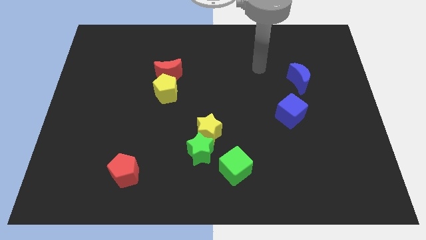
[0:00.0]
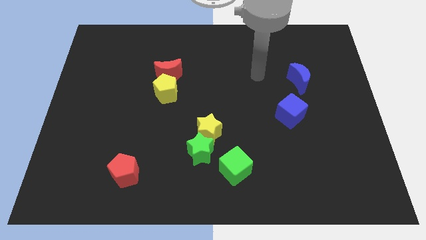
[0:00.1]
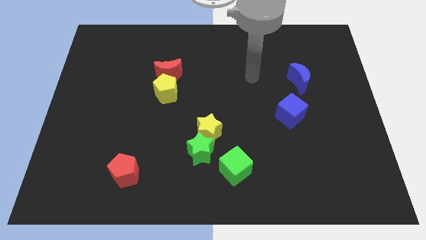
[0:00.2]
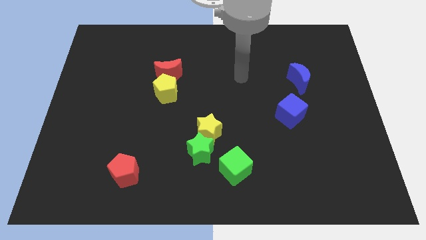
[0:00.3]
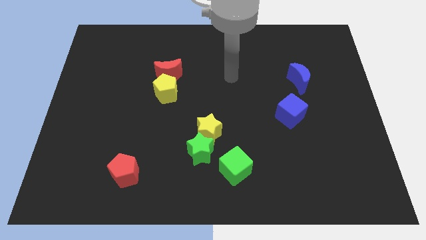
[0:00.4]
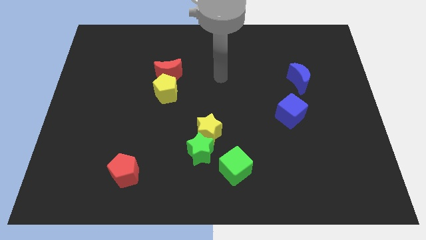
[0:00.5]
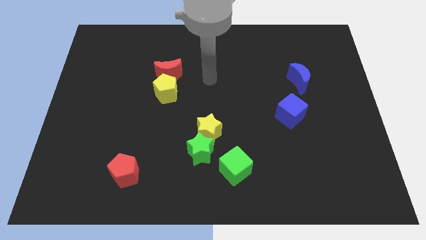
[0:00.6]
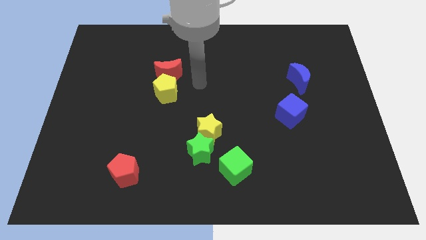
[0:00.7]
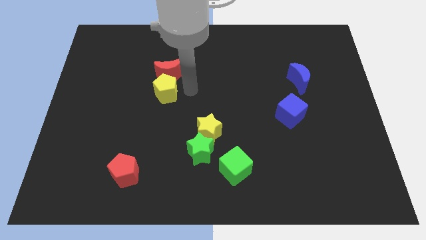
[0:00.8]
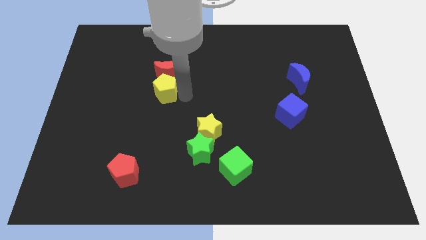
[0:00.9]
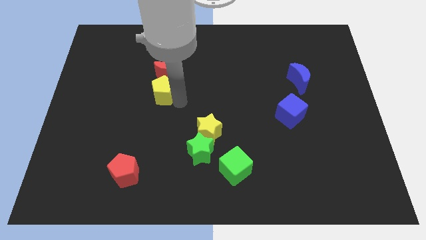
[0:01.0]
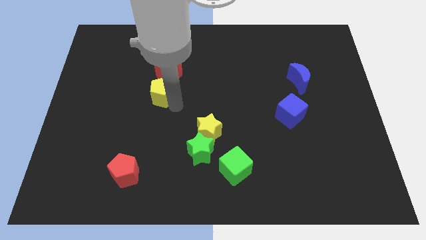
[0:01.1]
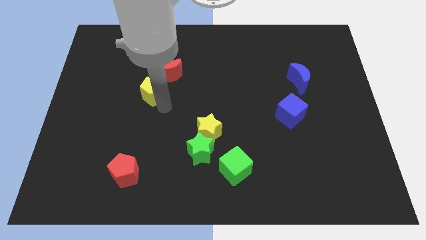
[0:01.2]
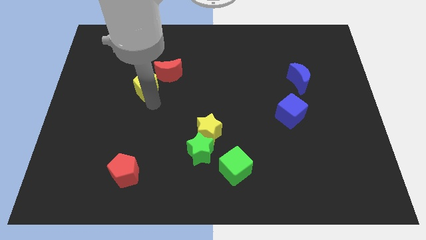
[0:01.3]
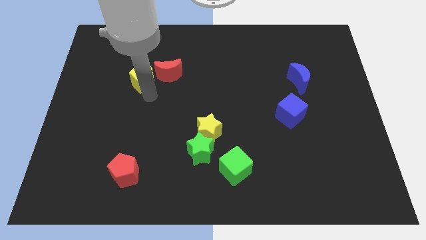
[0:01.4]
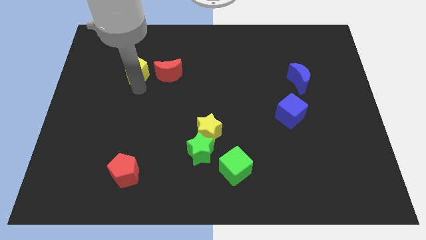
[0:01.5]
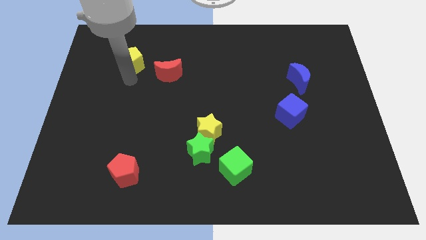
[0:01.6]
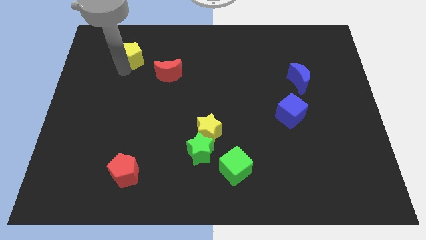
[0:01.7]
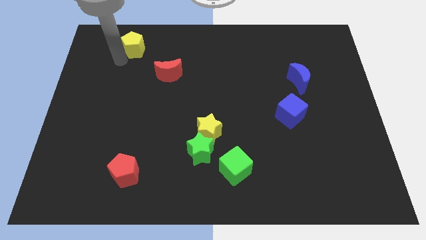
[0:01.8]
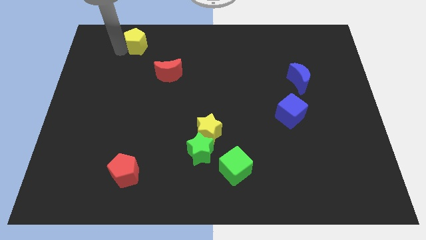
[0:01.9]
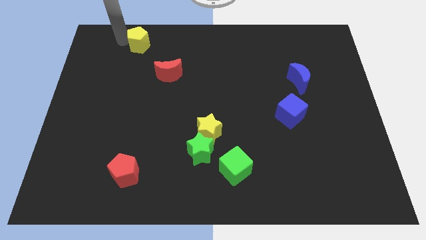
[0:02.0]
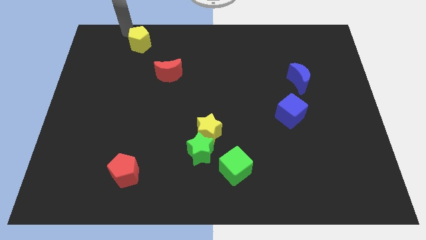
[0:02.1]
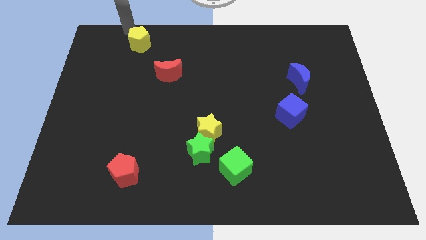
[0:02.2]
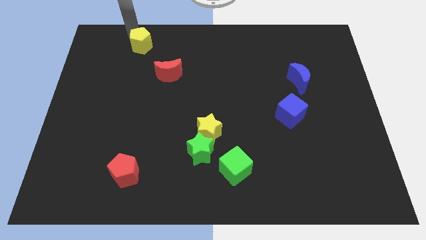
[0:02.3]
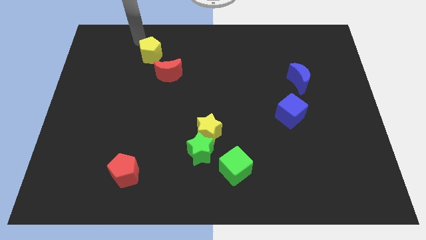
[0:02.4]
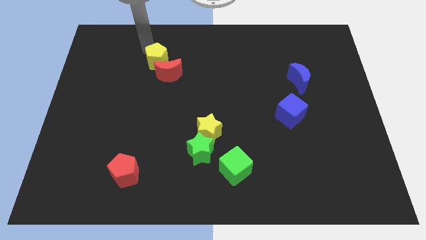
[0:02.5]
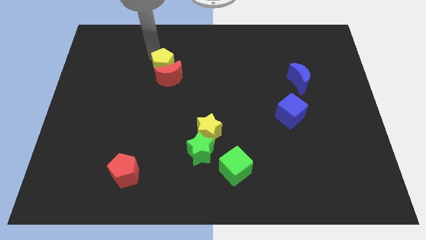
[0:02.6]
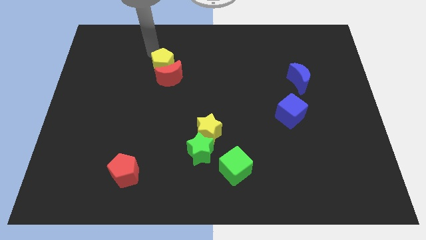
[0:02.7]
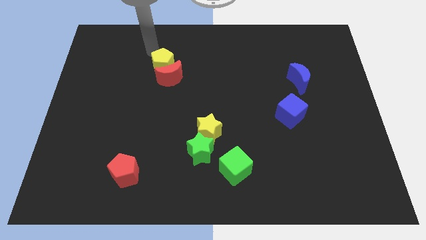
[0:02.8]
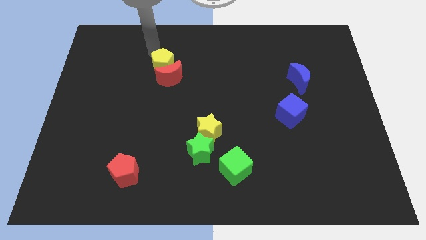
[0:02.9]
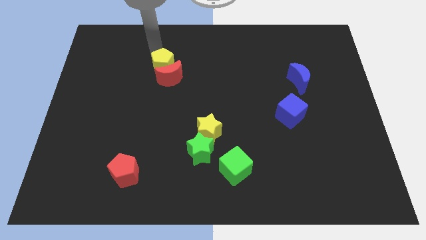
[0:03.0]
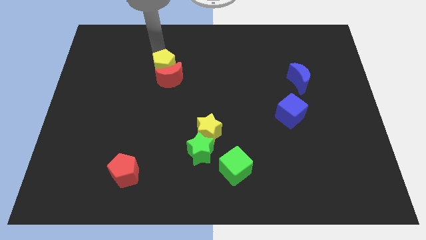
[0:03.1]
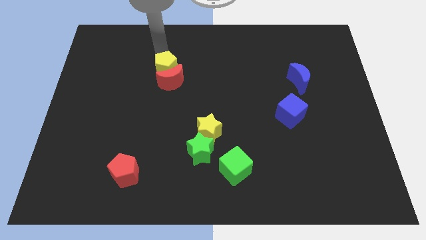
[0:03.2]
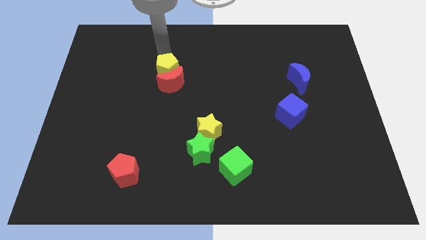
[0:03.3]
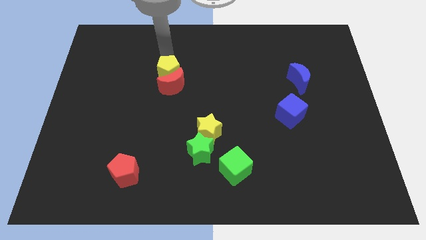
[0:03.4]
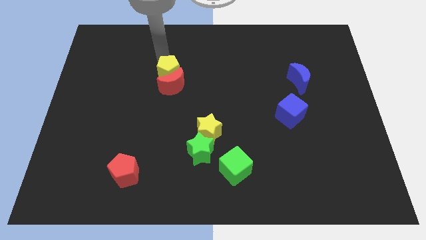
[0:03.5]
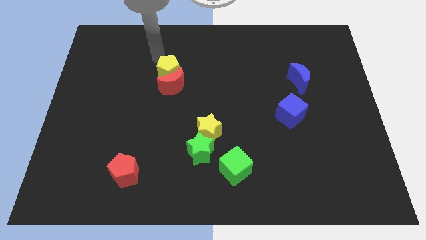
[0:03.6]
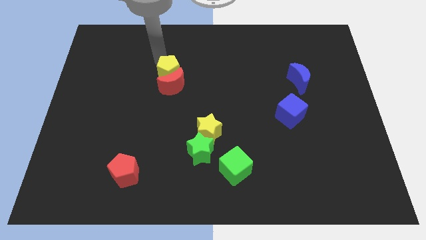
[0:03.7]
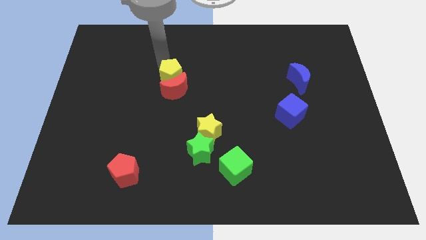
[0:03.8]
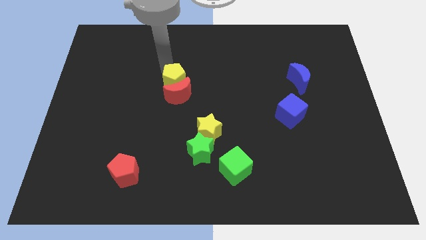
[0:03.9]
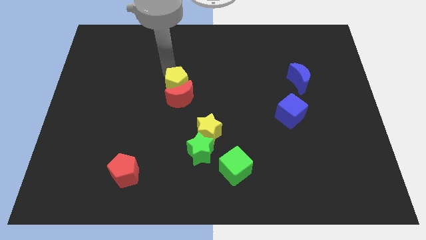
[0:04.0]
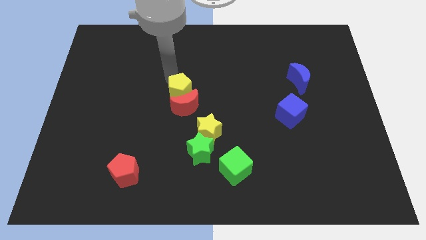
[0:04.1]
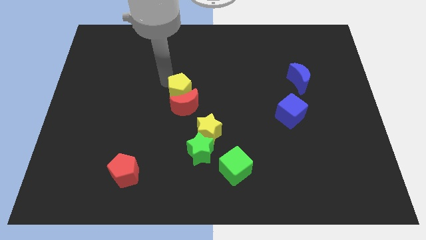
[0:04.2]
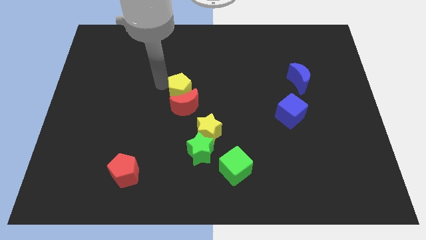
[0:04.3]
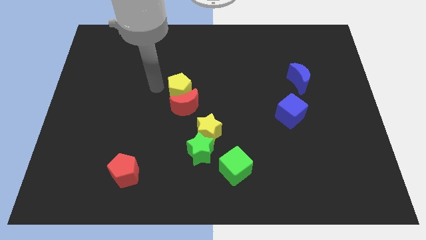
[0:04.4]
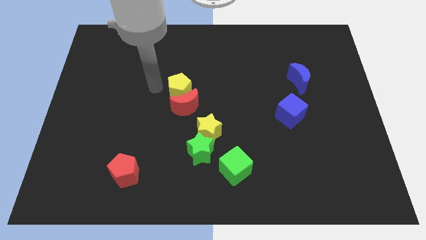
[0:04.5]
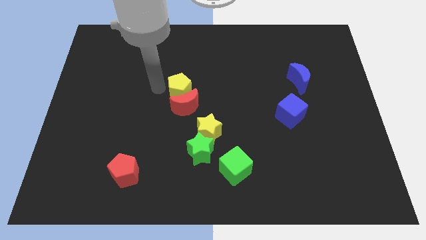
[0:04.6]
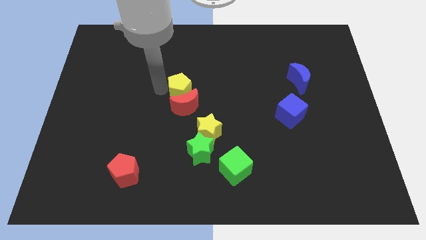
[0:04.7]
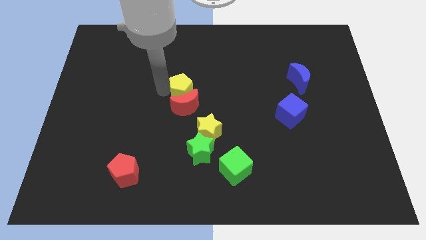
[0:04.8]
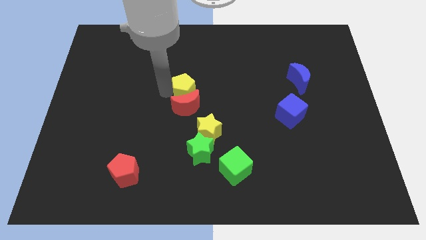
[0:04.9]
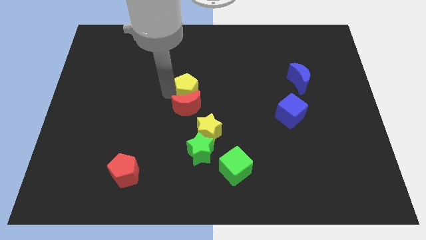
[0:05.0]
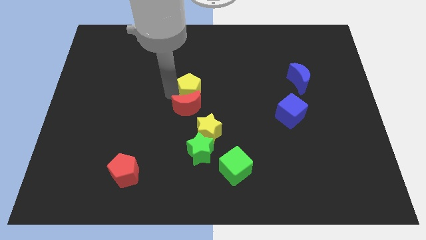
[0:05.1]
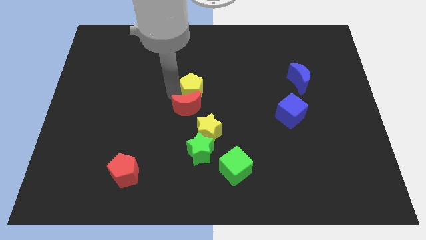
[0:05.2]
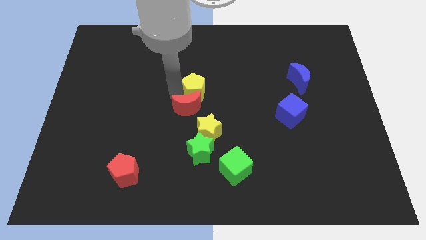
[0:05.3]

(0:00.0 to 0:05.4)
push the yellow pentagon to the right slightly

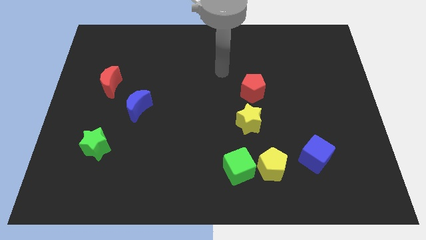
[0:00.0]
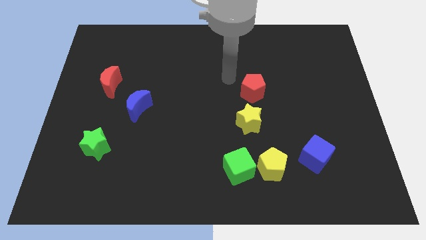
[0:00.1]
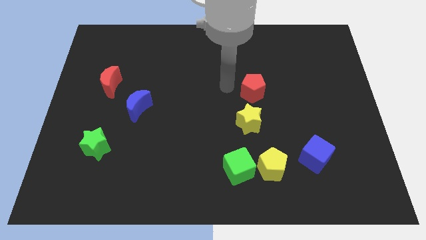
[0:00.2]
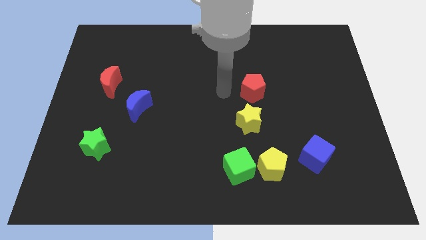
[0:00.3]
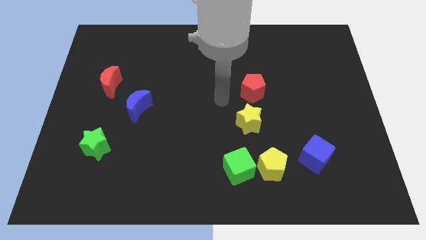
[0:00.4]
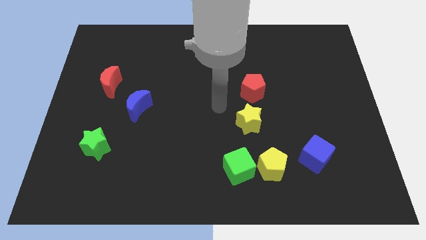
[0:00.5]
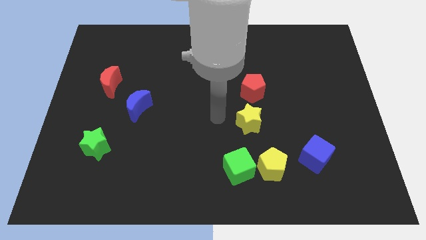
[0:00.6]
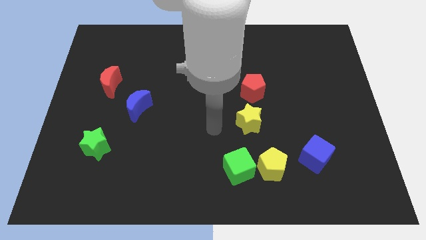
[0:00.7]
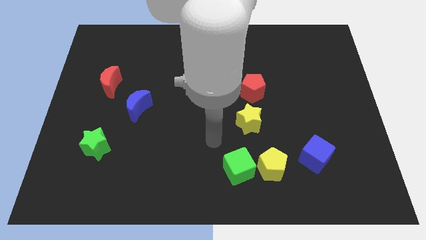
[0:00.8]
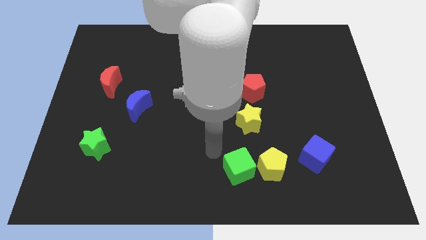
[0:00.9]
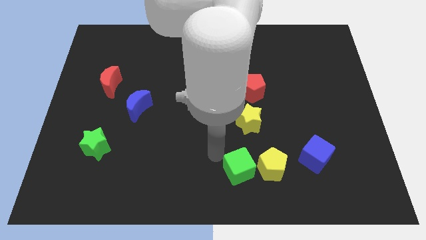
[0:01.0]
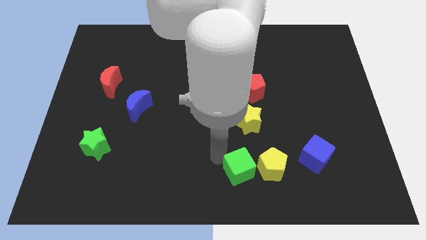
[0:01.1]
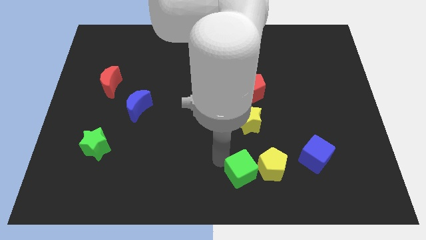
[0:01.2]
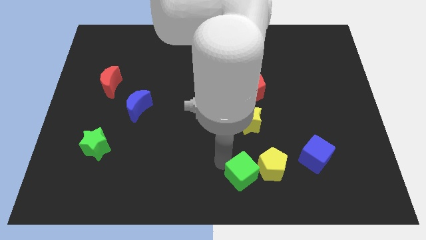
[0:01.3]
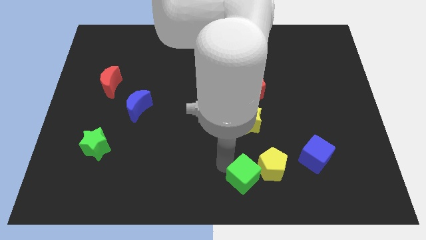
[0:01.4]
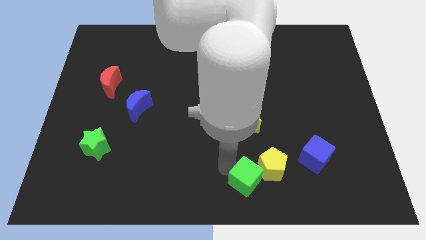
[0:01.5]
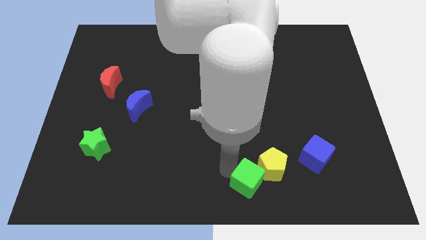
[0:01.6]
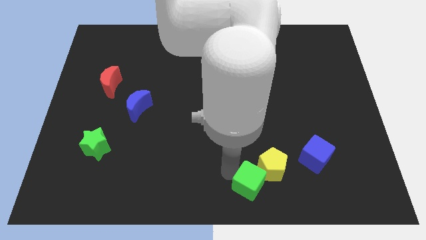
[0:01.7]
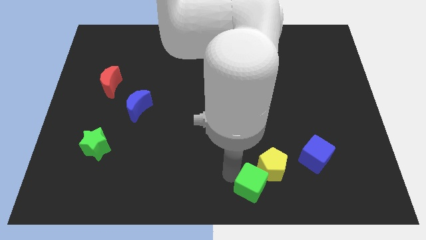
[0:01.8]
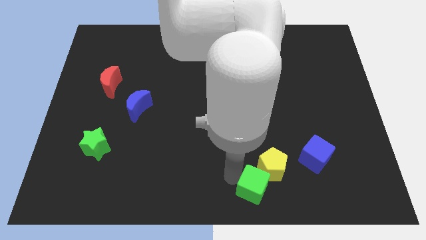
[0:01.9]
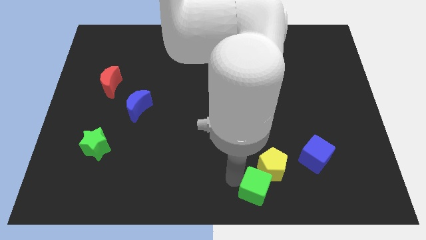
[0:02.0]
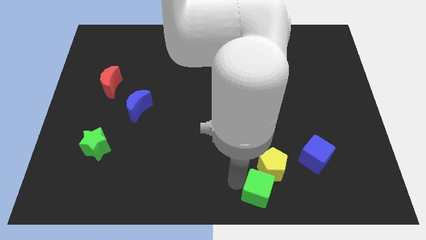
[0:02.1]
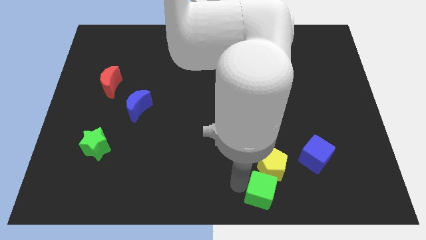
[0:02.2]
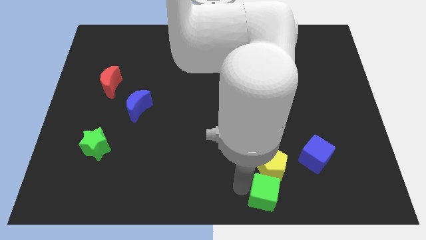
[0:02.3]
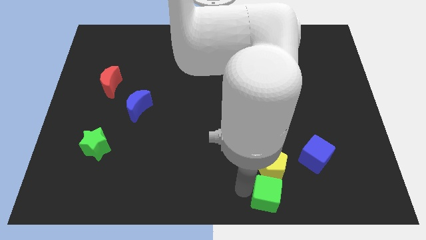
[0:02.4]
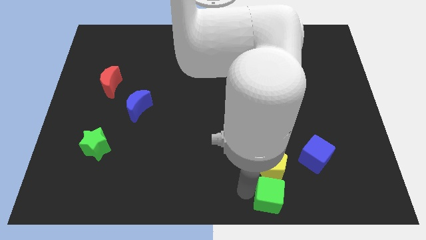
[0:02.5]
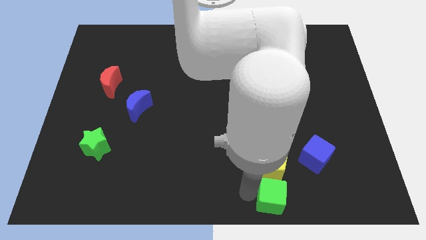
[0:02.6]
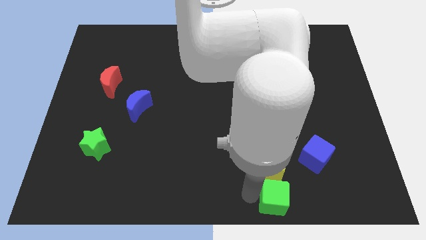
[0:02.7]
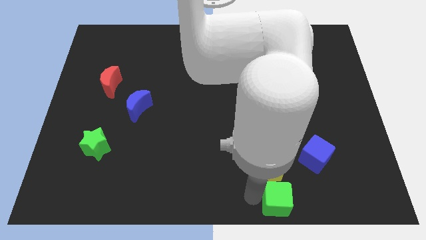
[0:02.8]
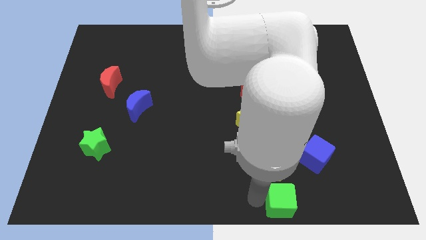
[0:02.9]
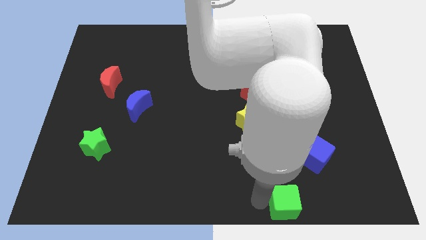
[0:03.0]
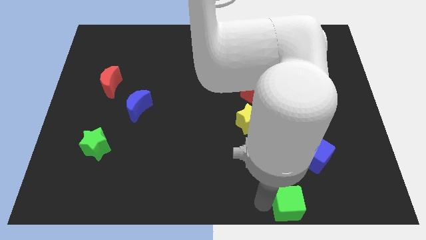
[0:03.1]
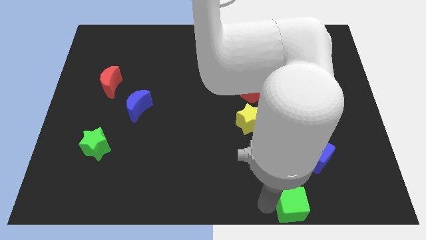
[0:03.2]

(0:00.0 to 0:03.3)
slightly slide the green cube right
